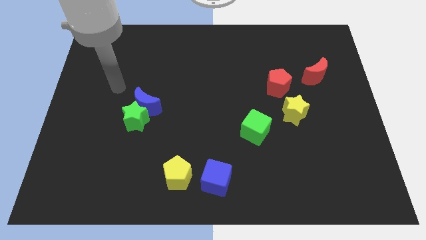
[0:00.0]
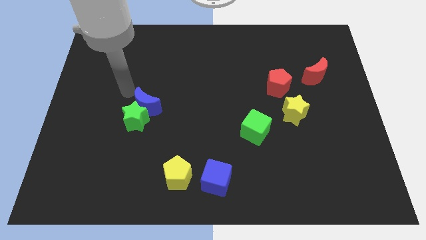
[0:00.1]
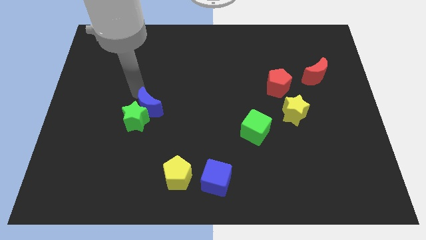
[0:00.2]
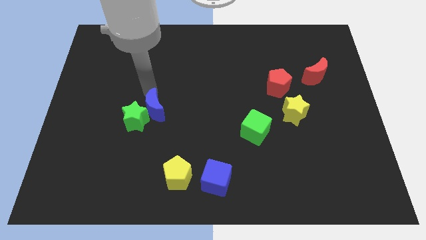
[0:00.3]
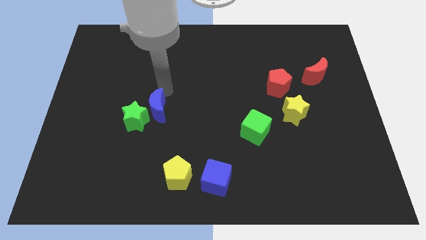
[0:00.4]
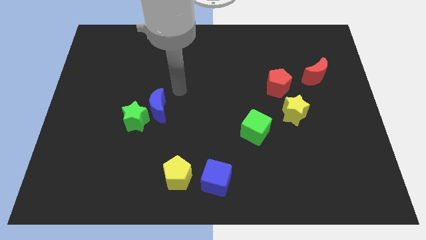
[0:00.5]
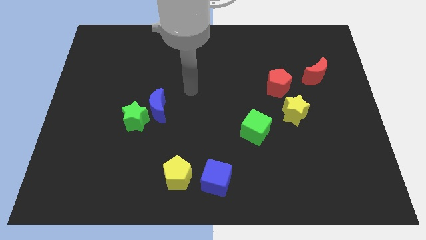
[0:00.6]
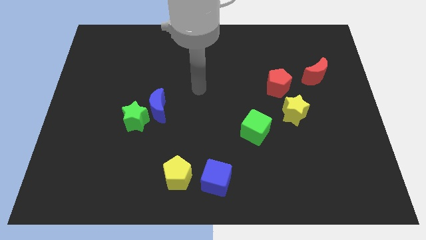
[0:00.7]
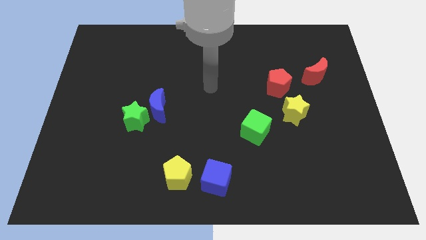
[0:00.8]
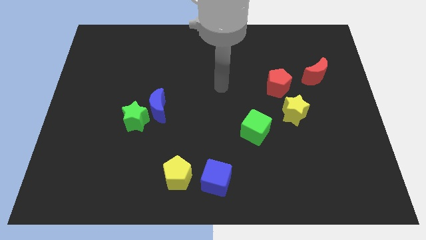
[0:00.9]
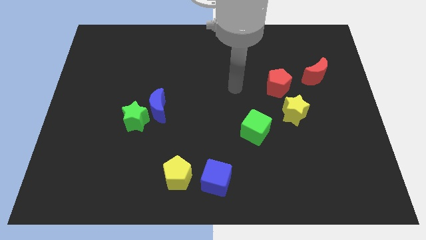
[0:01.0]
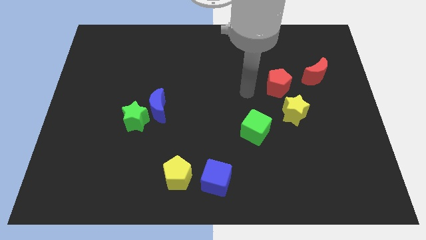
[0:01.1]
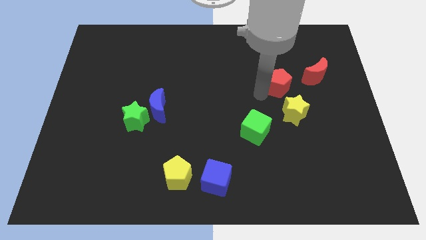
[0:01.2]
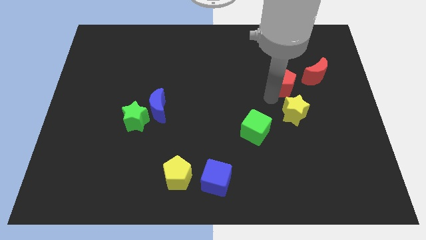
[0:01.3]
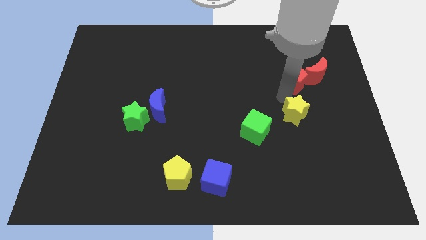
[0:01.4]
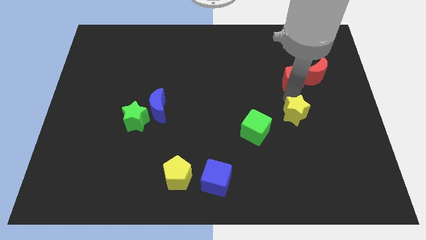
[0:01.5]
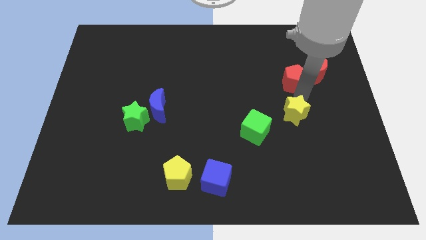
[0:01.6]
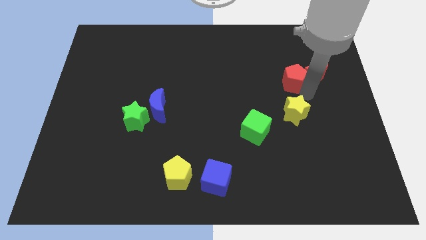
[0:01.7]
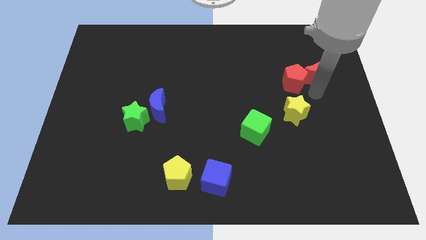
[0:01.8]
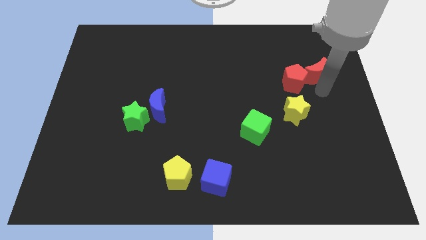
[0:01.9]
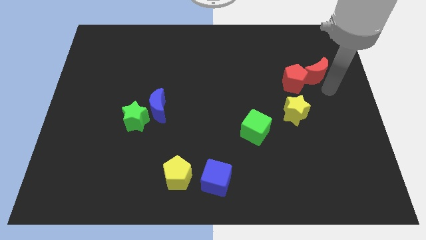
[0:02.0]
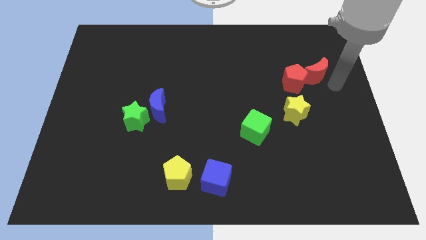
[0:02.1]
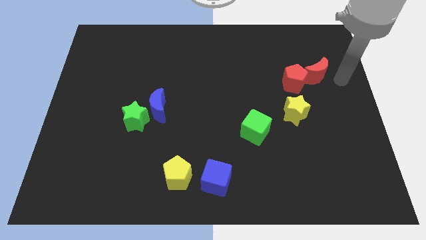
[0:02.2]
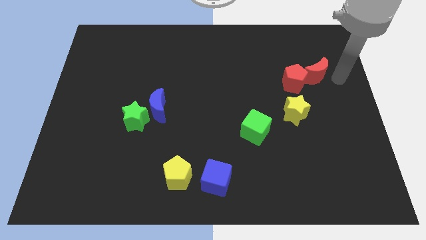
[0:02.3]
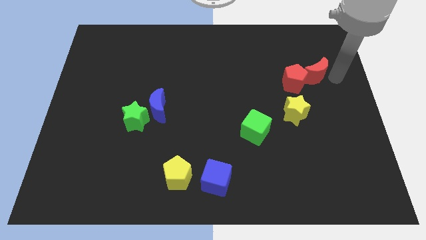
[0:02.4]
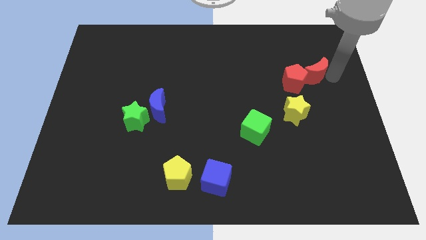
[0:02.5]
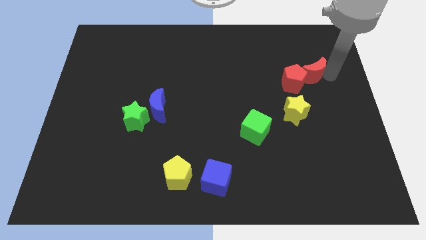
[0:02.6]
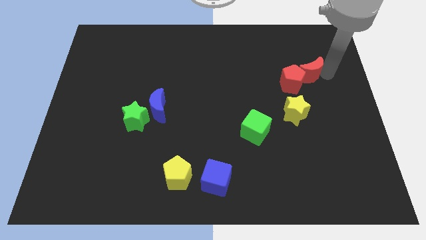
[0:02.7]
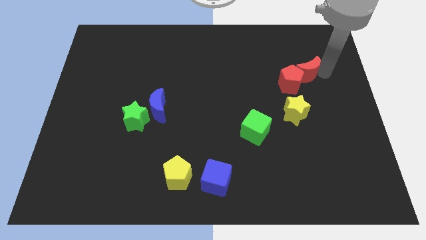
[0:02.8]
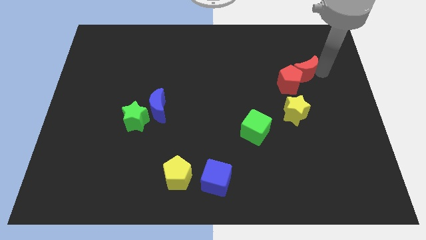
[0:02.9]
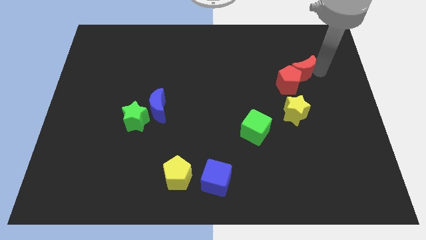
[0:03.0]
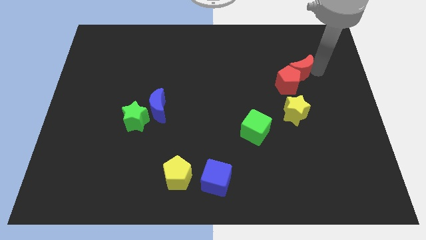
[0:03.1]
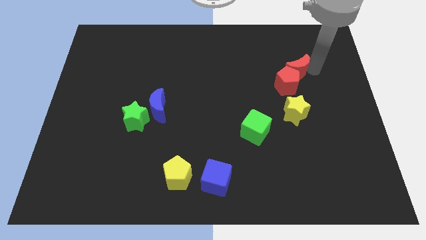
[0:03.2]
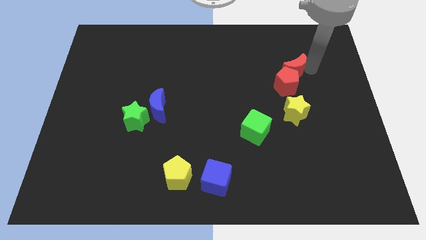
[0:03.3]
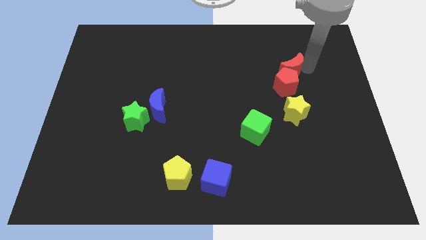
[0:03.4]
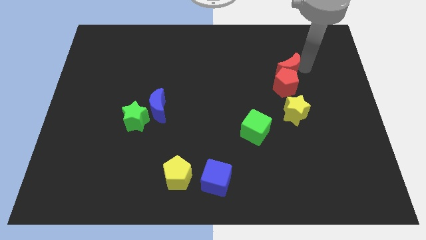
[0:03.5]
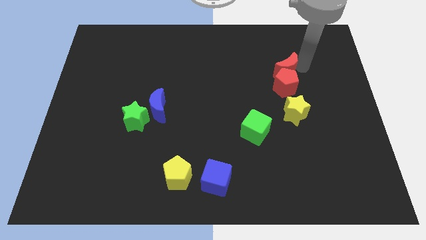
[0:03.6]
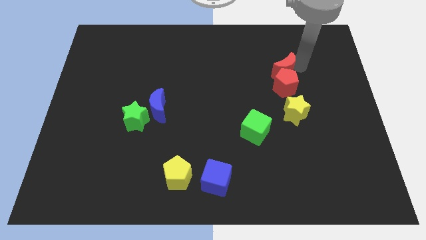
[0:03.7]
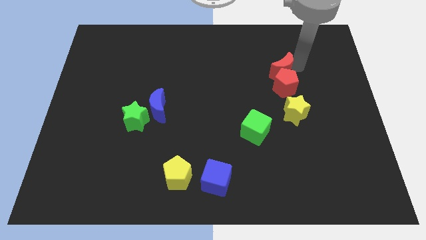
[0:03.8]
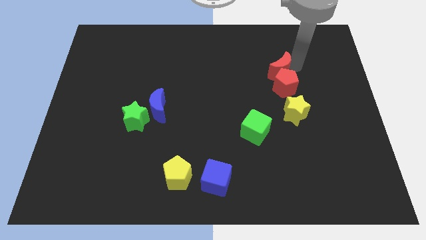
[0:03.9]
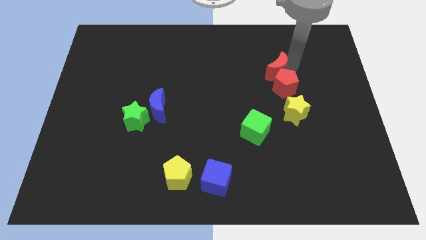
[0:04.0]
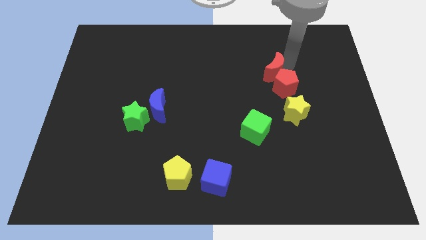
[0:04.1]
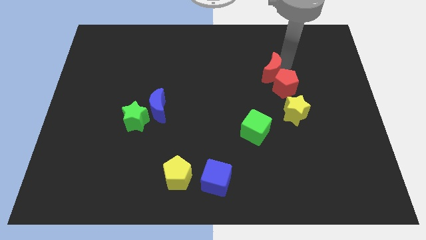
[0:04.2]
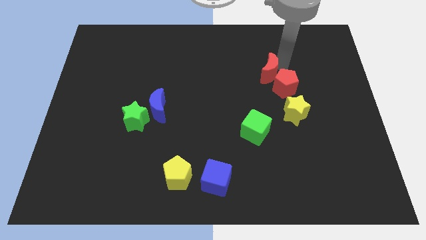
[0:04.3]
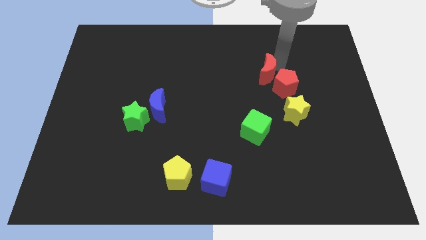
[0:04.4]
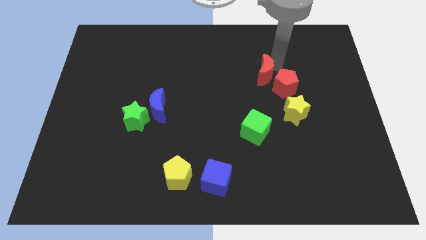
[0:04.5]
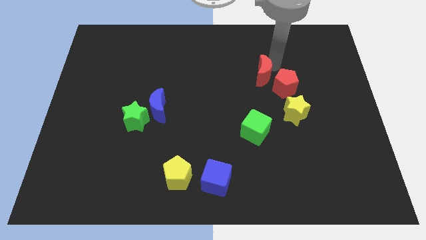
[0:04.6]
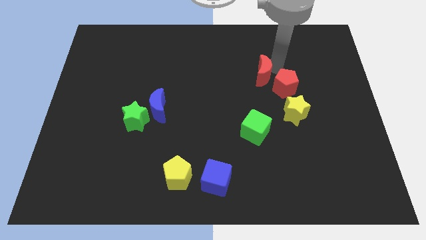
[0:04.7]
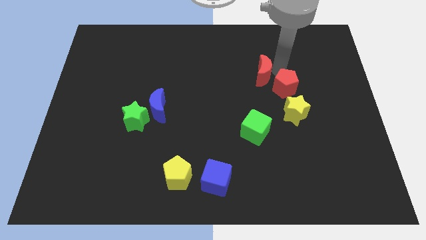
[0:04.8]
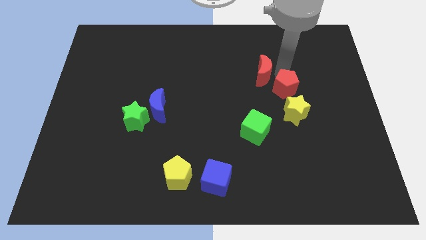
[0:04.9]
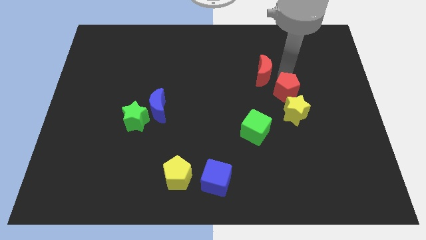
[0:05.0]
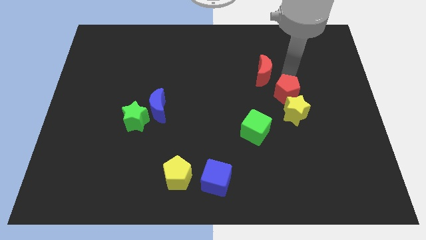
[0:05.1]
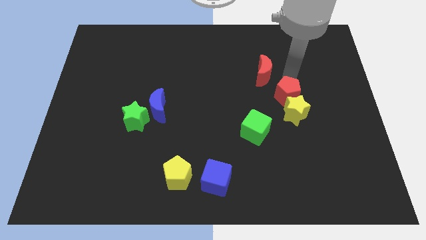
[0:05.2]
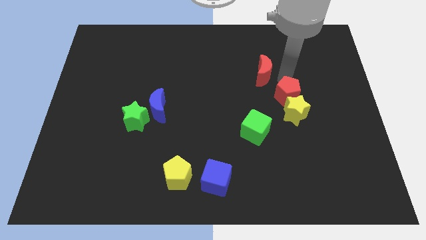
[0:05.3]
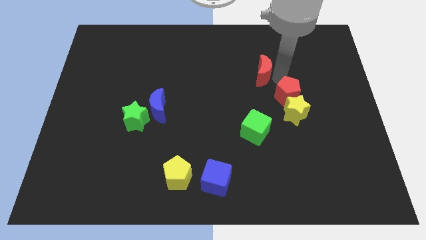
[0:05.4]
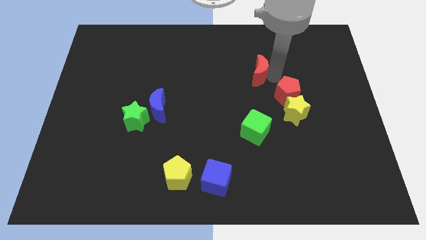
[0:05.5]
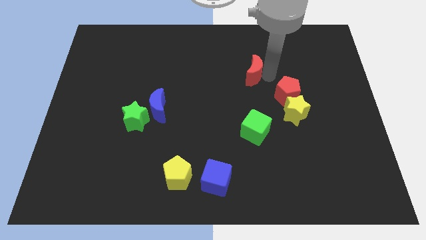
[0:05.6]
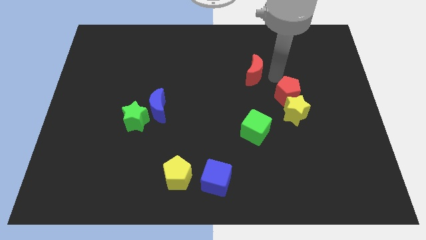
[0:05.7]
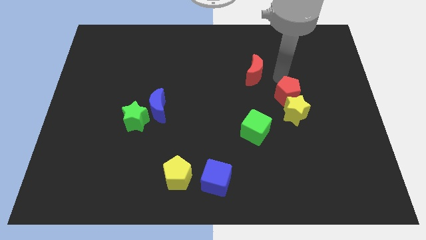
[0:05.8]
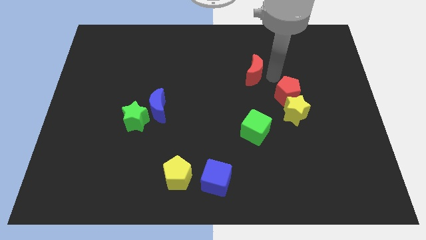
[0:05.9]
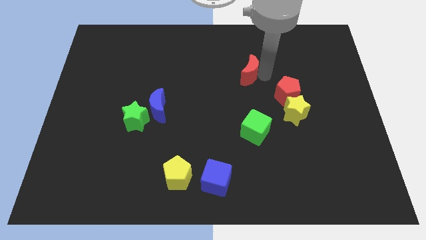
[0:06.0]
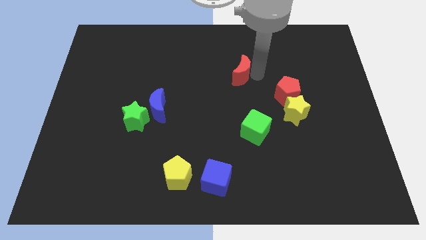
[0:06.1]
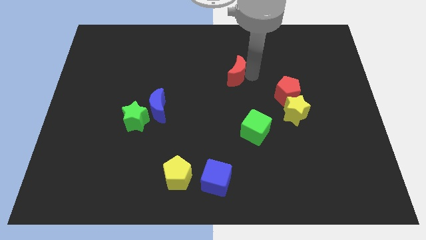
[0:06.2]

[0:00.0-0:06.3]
slide the red moon to the left

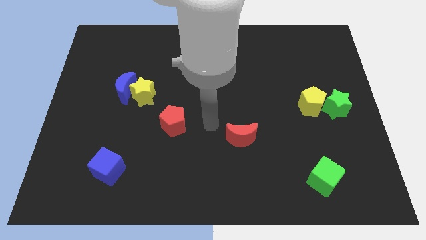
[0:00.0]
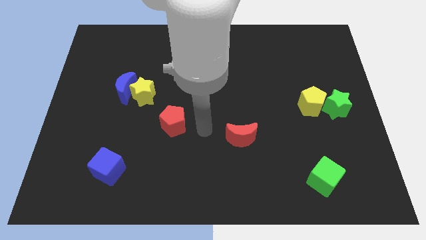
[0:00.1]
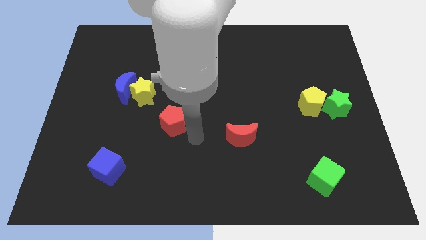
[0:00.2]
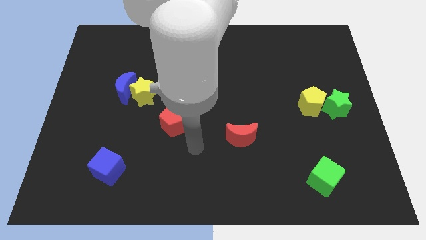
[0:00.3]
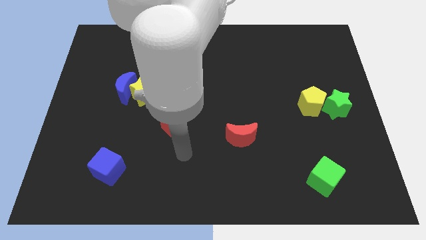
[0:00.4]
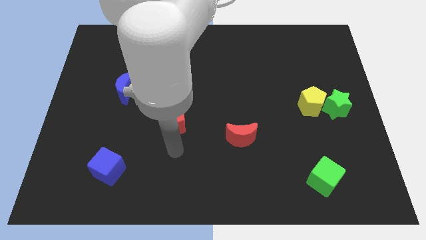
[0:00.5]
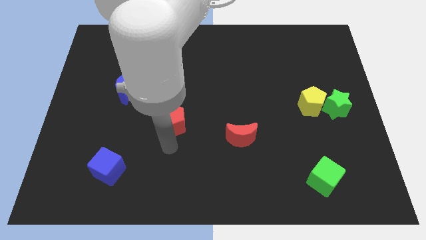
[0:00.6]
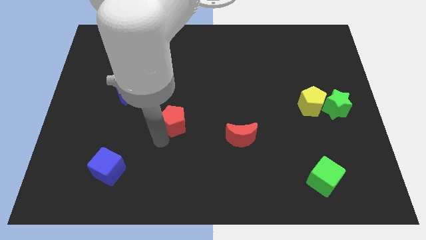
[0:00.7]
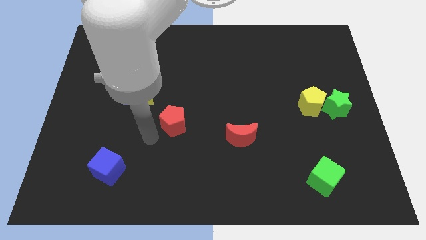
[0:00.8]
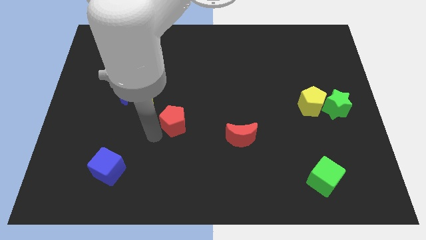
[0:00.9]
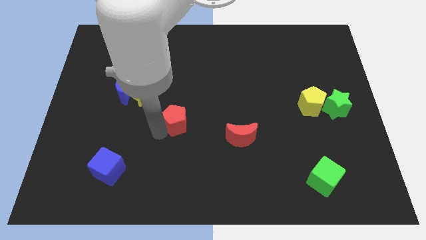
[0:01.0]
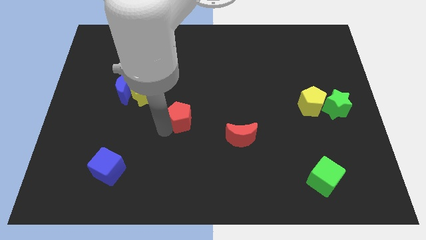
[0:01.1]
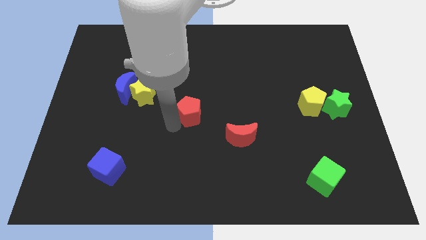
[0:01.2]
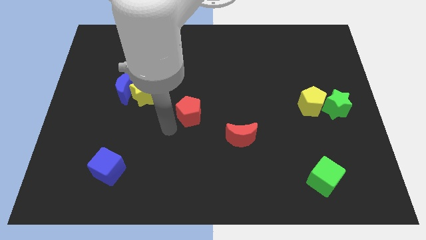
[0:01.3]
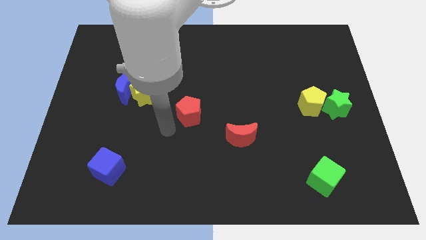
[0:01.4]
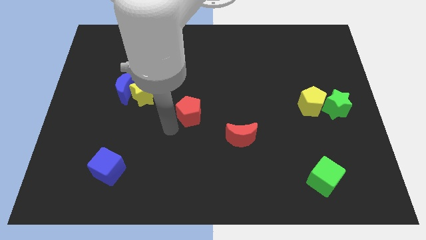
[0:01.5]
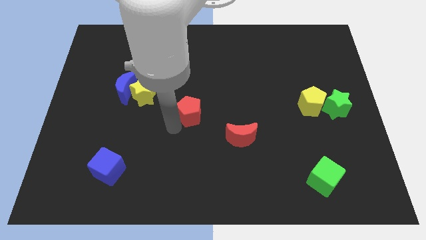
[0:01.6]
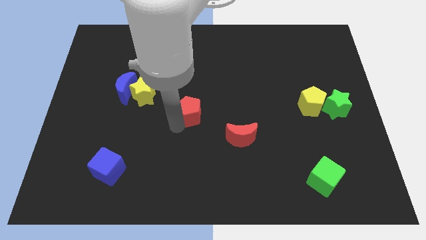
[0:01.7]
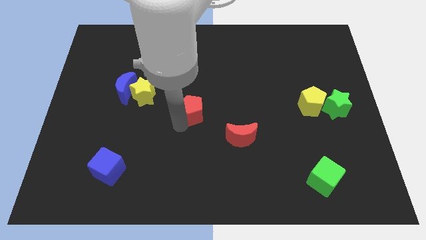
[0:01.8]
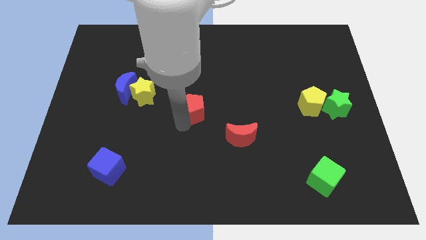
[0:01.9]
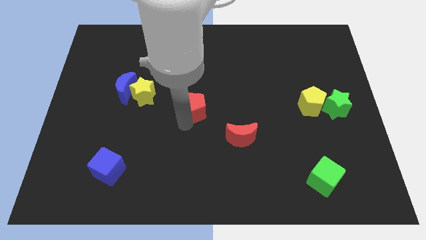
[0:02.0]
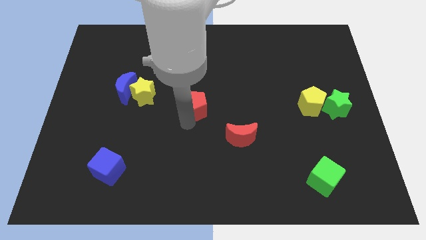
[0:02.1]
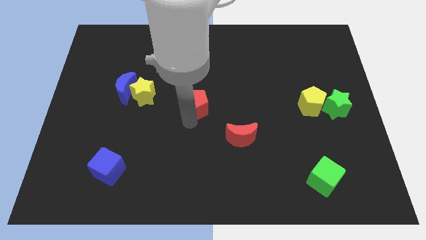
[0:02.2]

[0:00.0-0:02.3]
push the red pentagon a little bit diagonally upwards and to the right
